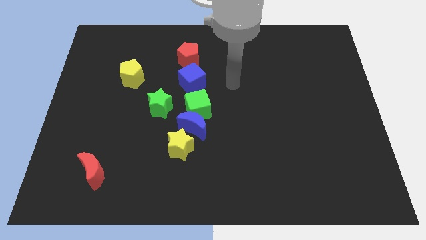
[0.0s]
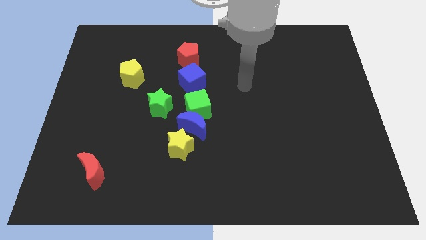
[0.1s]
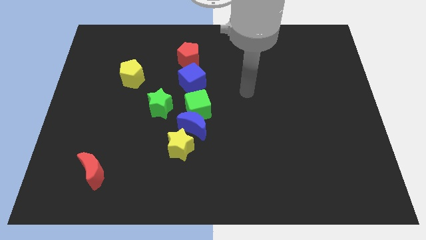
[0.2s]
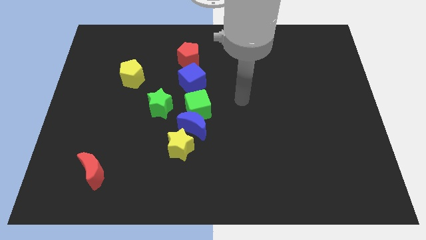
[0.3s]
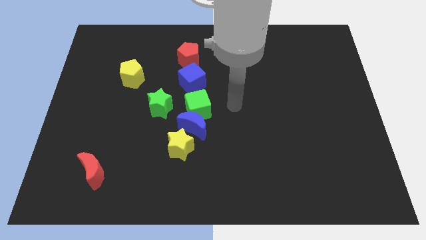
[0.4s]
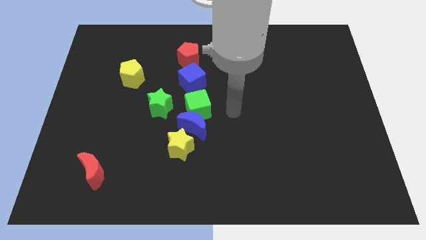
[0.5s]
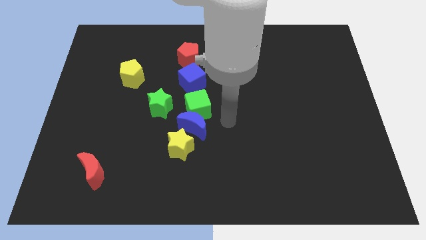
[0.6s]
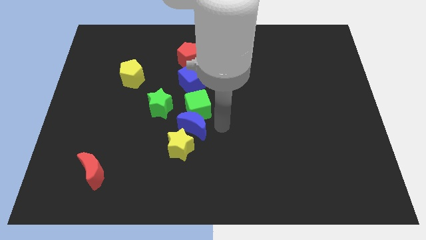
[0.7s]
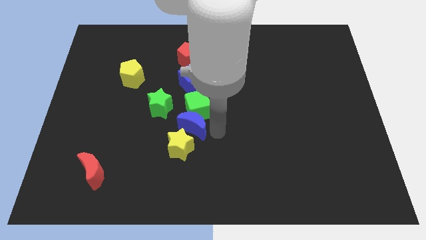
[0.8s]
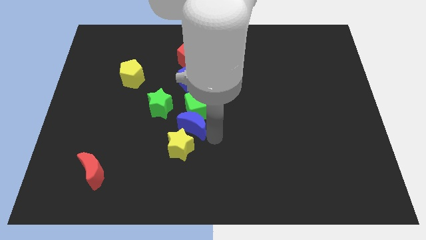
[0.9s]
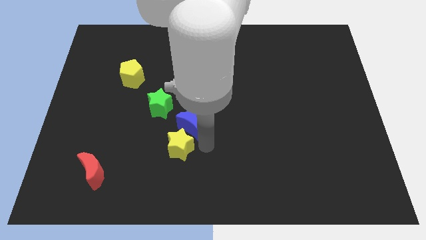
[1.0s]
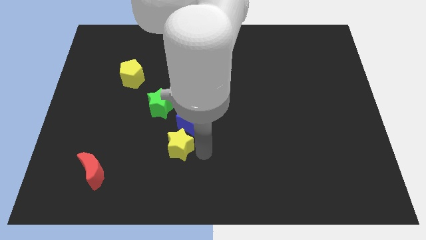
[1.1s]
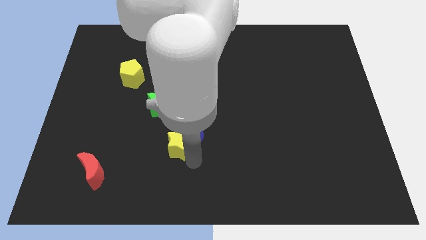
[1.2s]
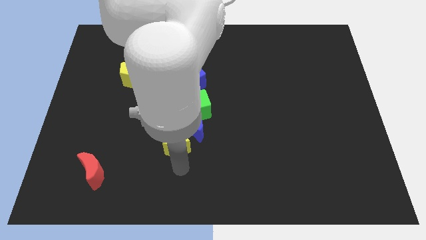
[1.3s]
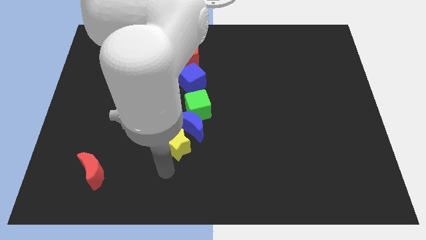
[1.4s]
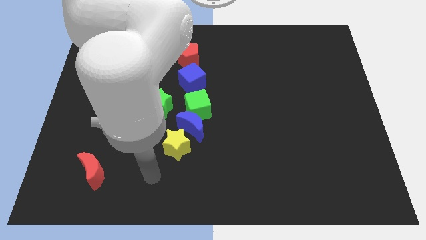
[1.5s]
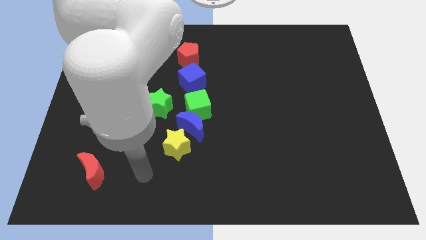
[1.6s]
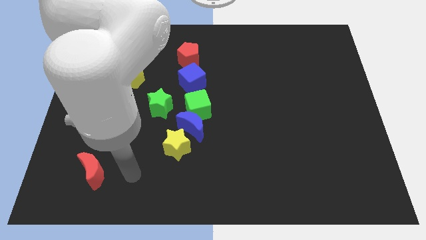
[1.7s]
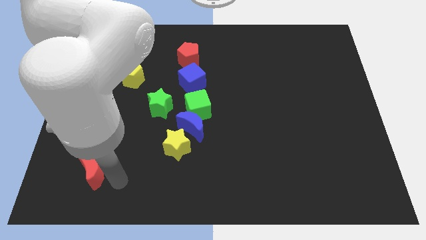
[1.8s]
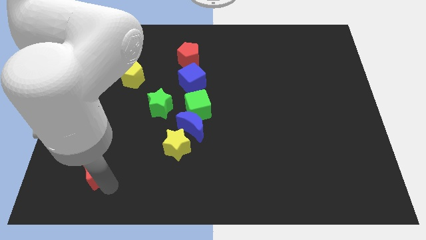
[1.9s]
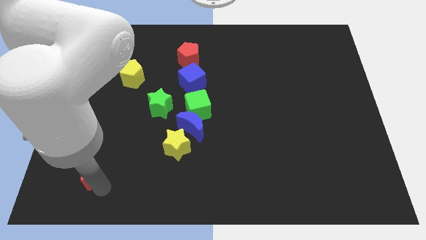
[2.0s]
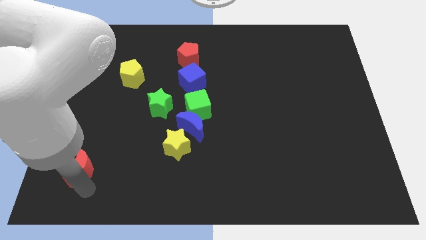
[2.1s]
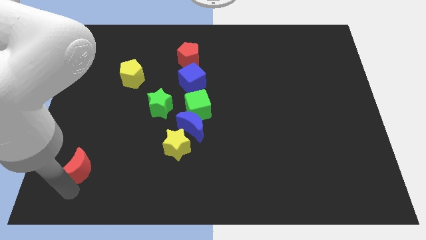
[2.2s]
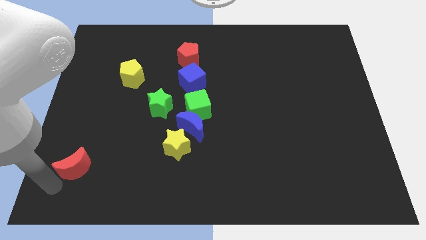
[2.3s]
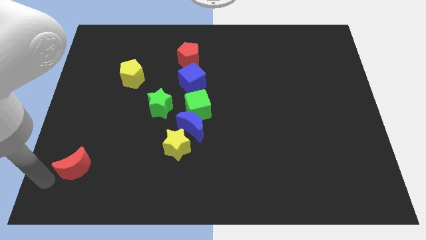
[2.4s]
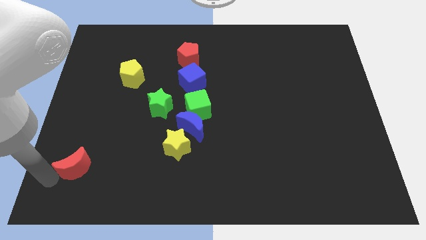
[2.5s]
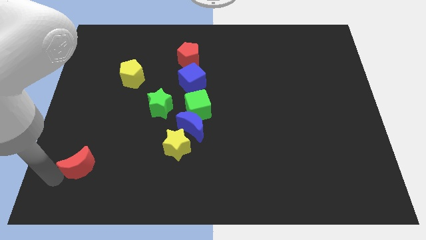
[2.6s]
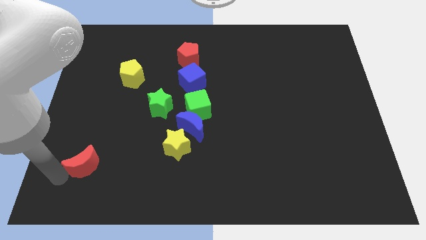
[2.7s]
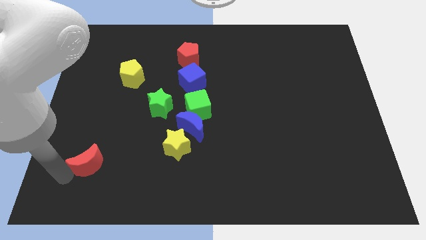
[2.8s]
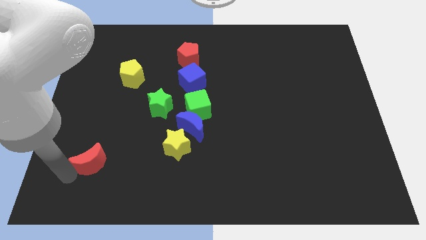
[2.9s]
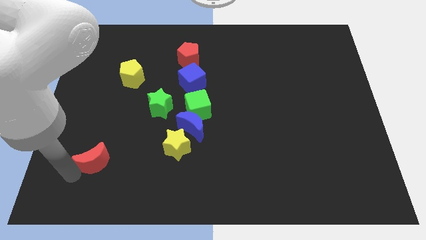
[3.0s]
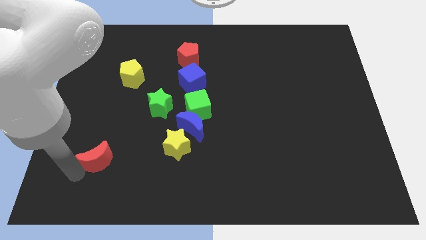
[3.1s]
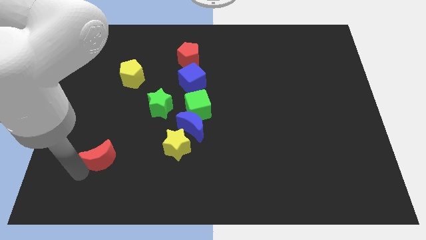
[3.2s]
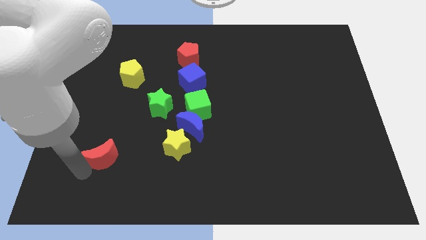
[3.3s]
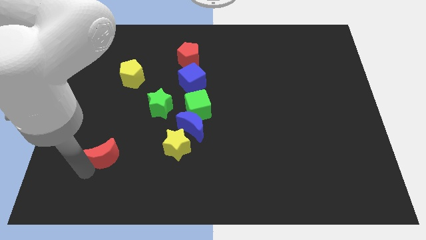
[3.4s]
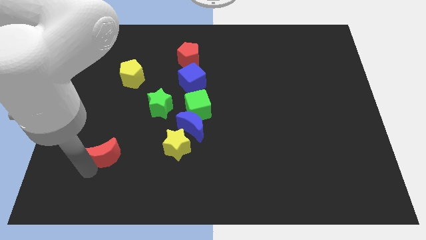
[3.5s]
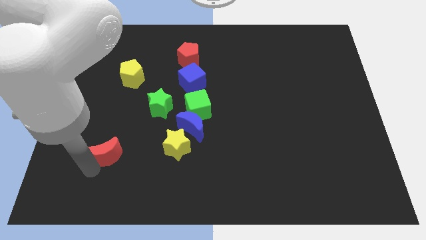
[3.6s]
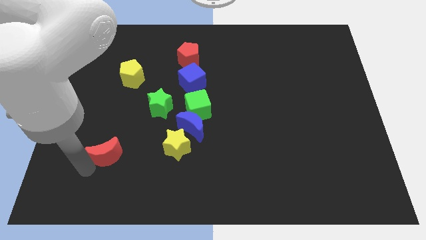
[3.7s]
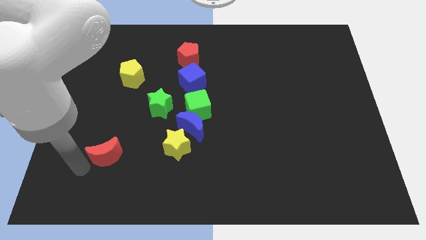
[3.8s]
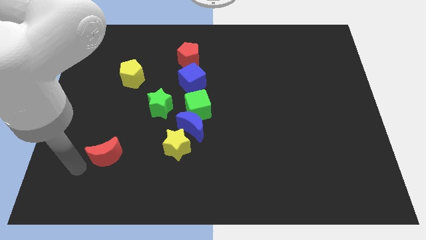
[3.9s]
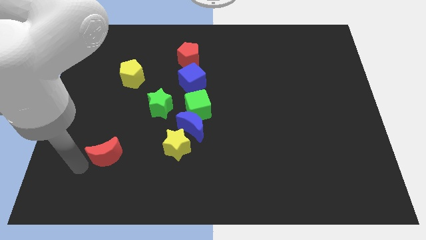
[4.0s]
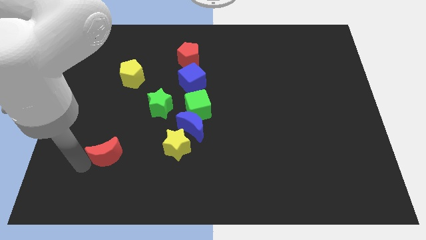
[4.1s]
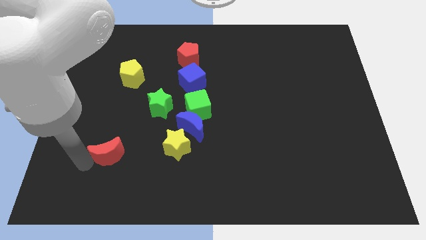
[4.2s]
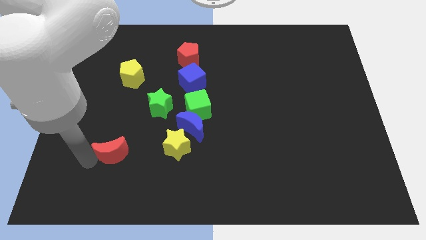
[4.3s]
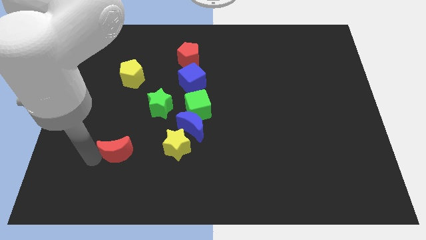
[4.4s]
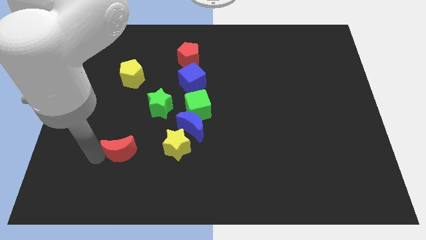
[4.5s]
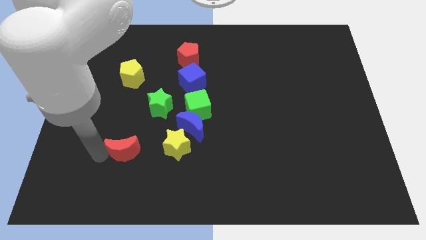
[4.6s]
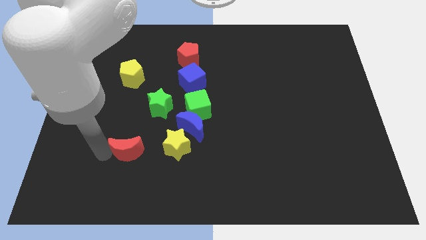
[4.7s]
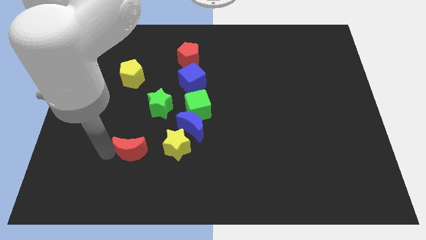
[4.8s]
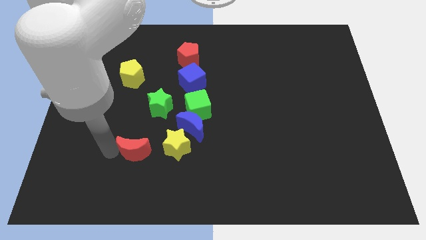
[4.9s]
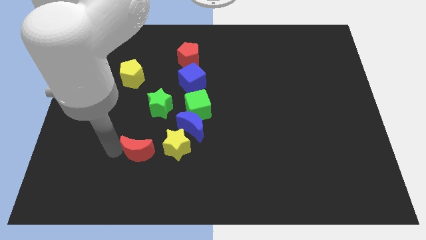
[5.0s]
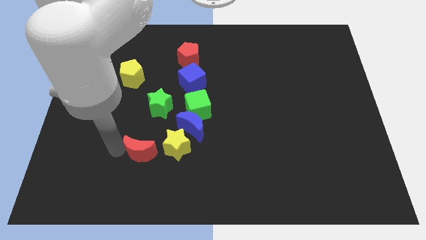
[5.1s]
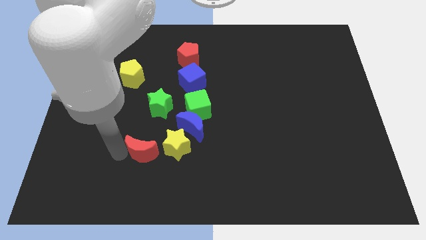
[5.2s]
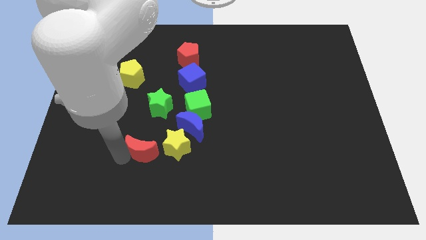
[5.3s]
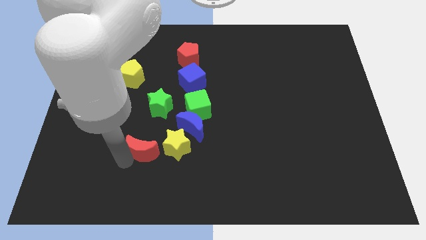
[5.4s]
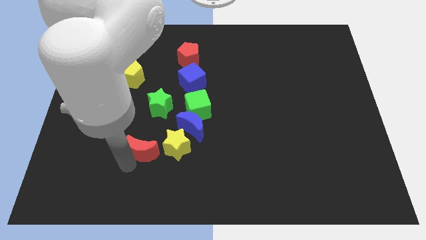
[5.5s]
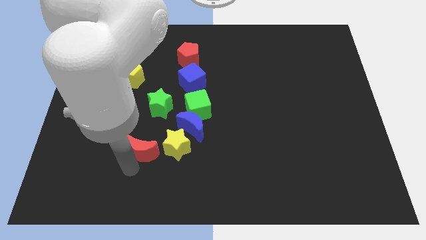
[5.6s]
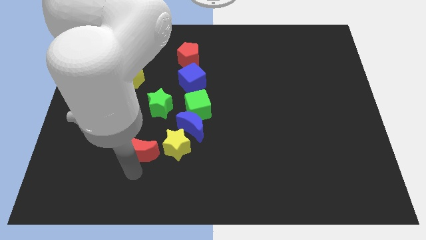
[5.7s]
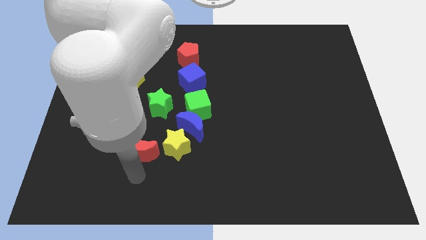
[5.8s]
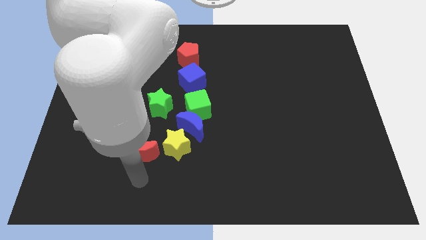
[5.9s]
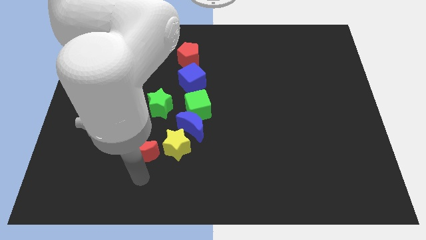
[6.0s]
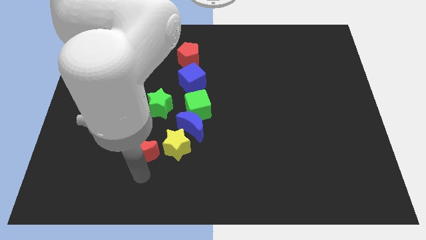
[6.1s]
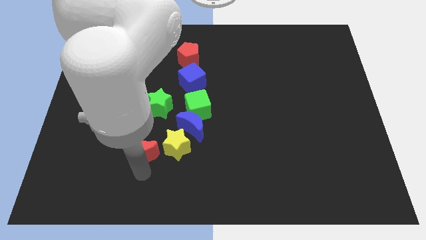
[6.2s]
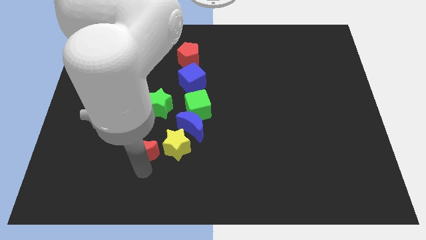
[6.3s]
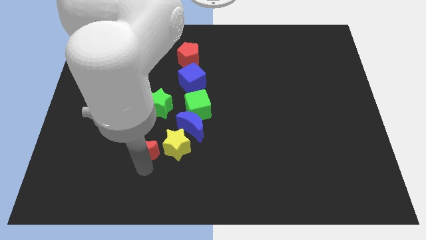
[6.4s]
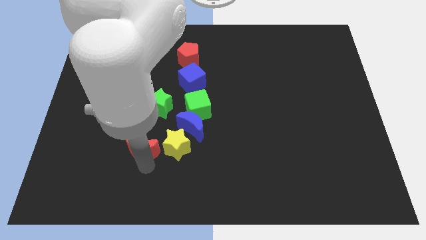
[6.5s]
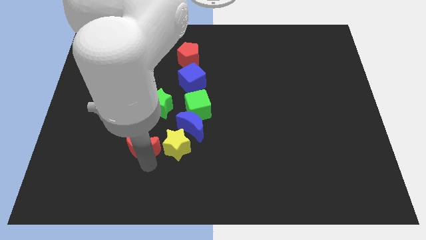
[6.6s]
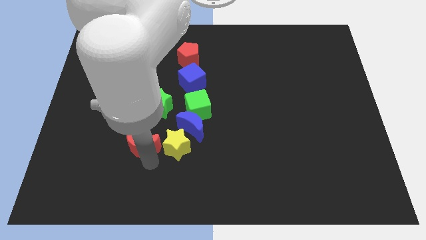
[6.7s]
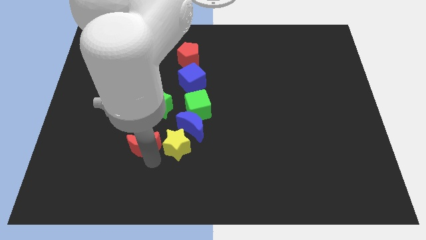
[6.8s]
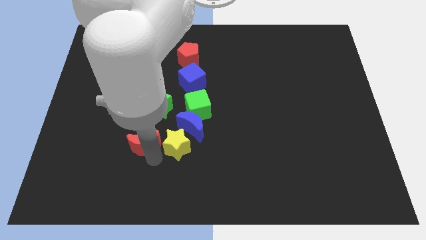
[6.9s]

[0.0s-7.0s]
put the red moon to the top left side of the yellow star
